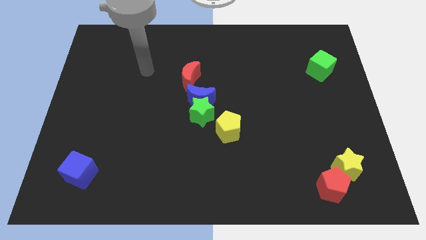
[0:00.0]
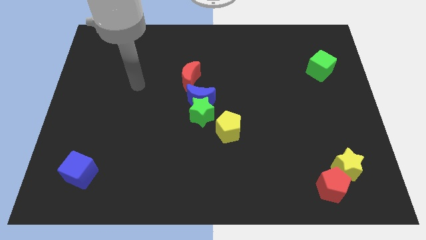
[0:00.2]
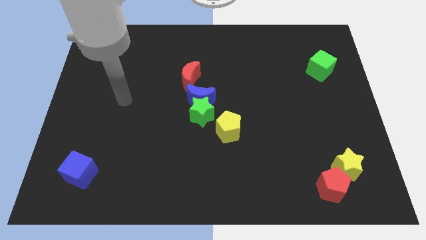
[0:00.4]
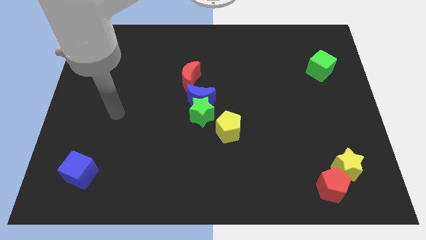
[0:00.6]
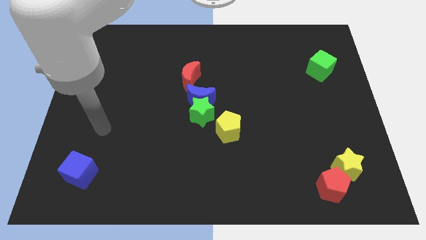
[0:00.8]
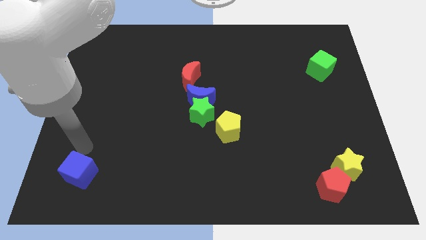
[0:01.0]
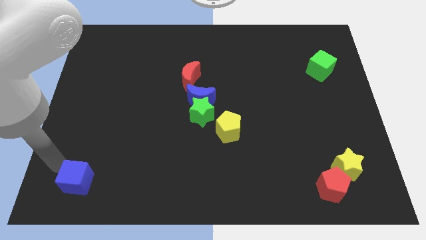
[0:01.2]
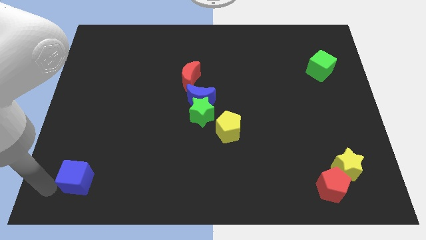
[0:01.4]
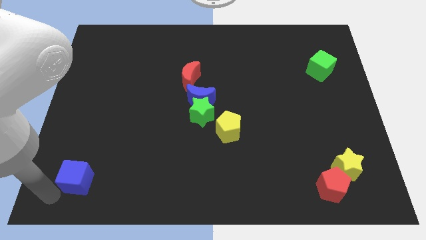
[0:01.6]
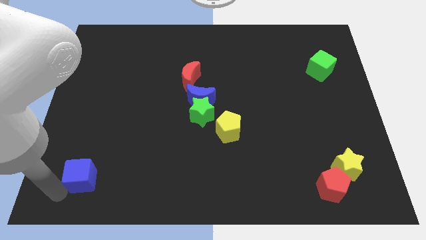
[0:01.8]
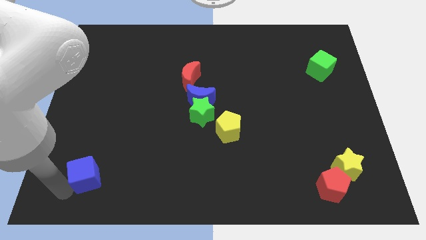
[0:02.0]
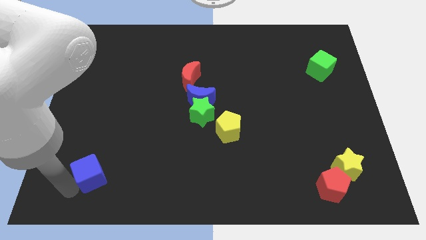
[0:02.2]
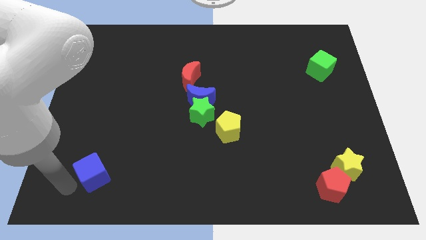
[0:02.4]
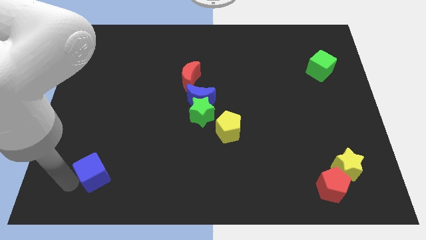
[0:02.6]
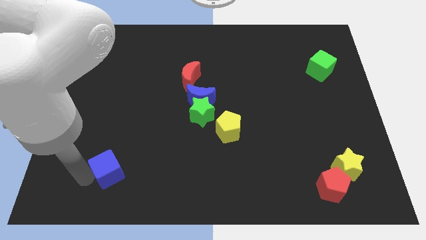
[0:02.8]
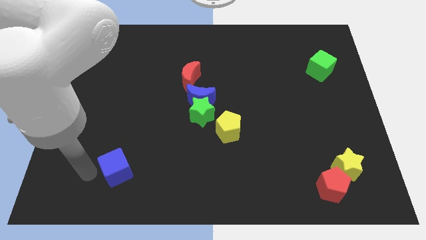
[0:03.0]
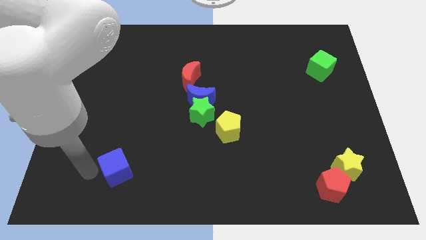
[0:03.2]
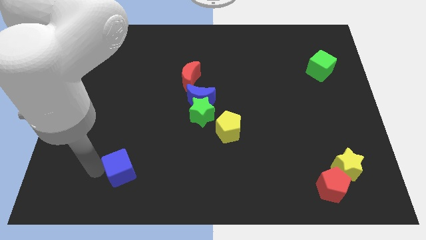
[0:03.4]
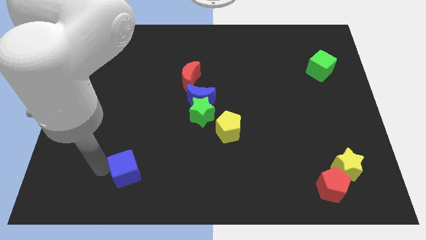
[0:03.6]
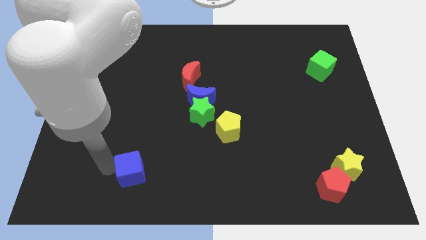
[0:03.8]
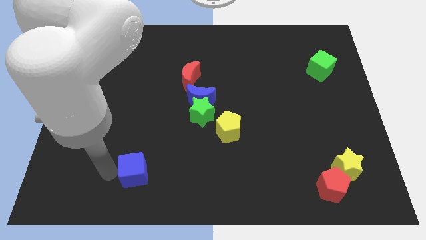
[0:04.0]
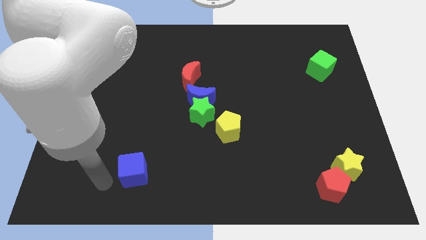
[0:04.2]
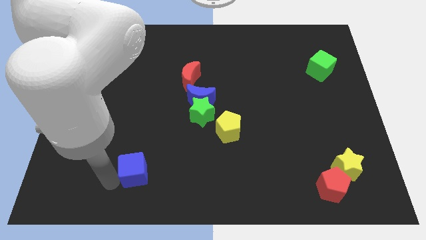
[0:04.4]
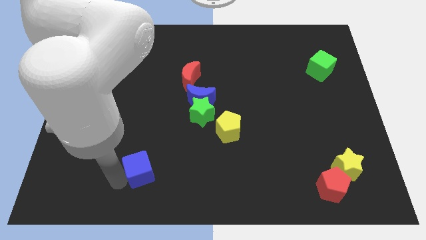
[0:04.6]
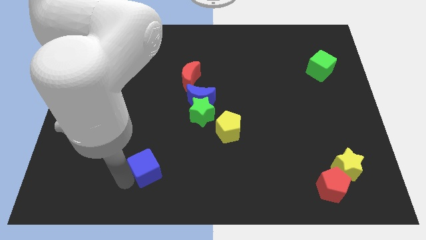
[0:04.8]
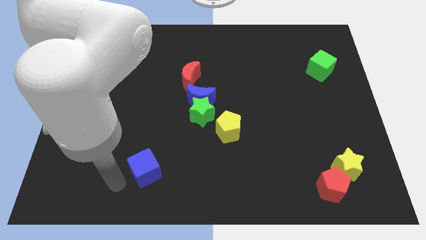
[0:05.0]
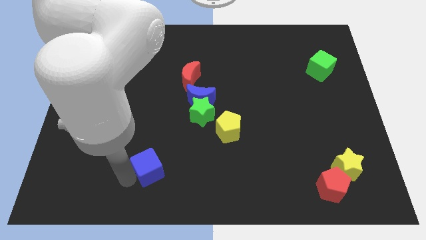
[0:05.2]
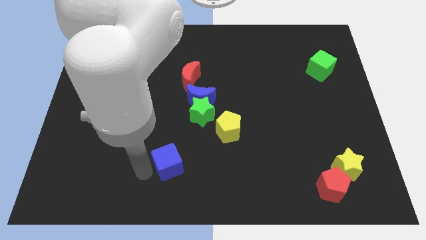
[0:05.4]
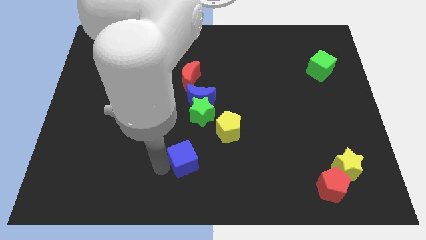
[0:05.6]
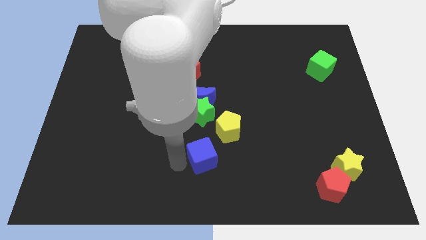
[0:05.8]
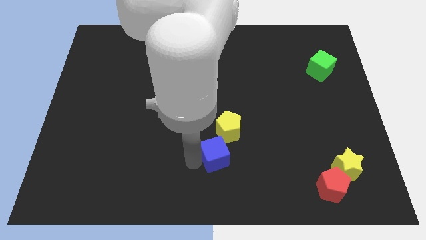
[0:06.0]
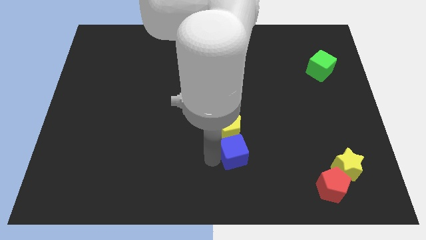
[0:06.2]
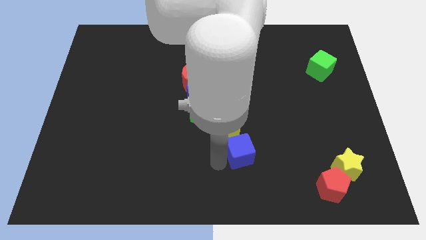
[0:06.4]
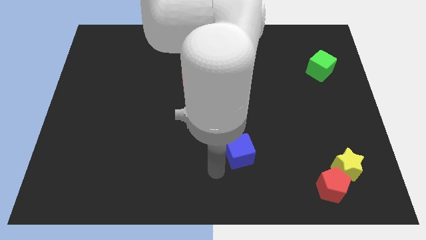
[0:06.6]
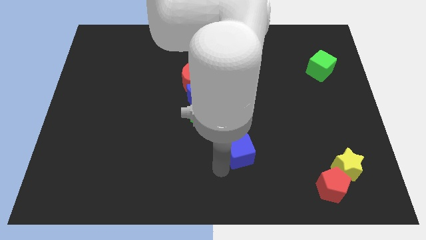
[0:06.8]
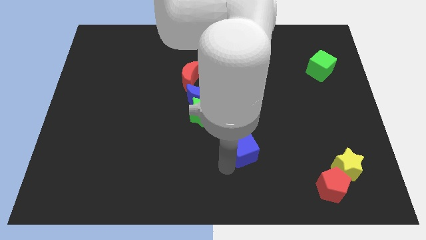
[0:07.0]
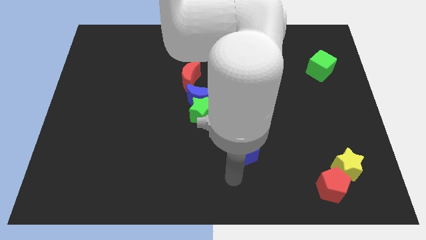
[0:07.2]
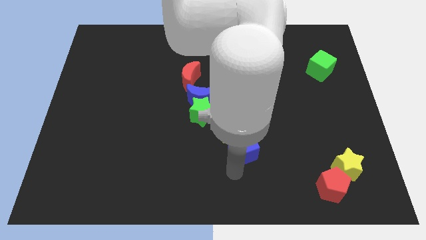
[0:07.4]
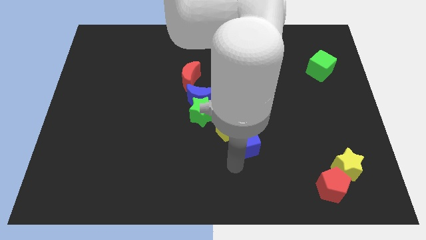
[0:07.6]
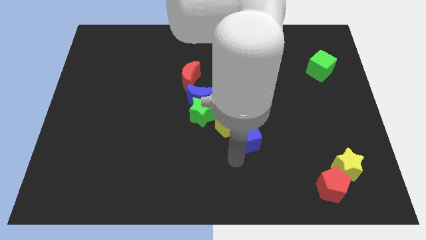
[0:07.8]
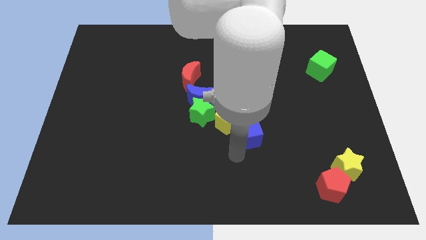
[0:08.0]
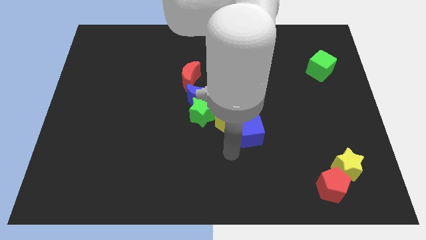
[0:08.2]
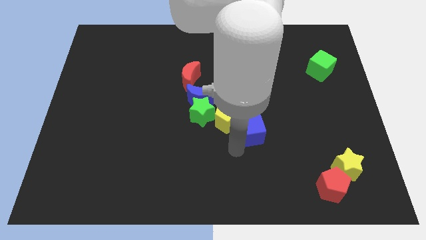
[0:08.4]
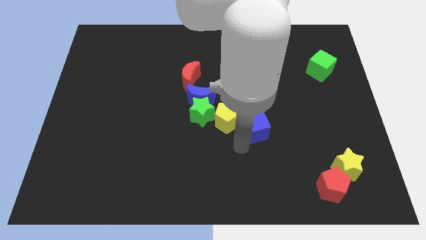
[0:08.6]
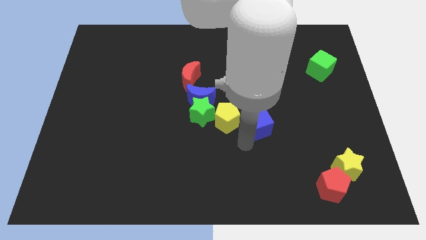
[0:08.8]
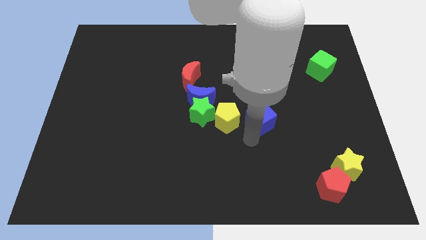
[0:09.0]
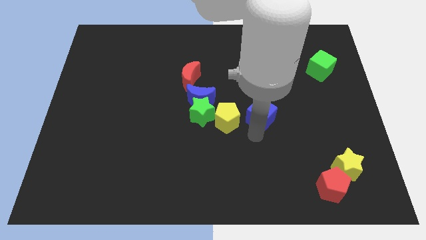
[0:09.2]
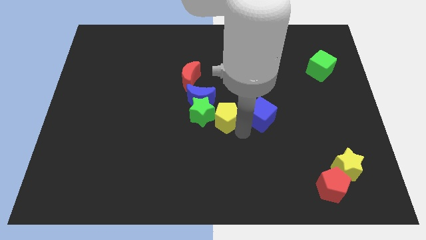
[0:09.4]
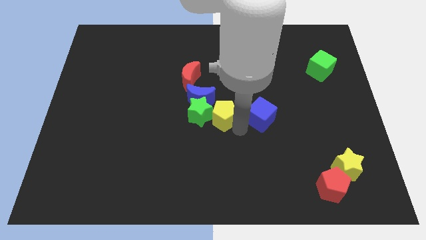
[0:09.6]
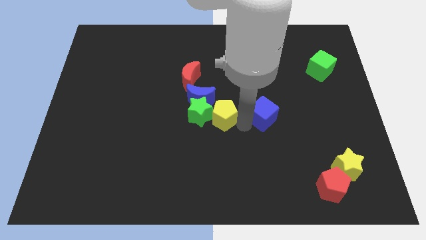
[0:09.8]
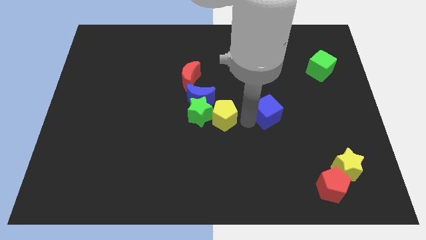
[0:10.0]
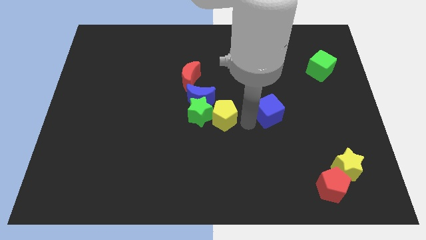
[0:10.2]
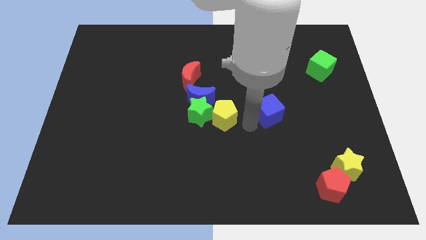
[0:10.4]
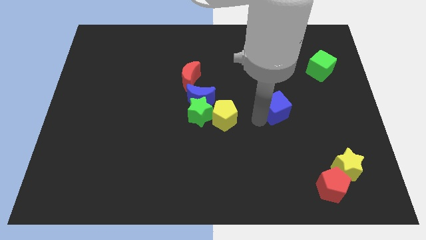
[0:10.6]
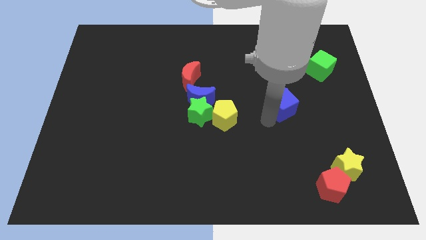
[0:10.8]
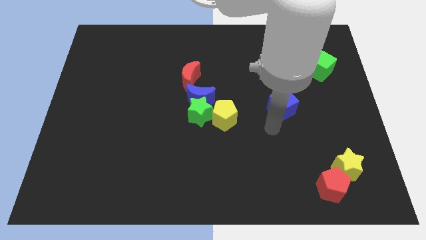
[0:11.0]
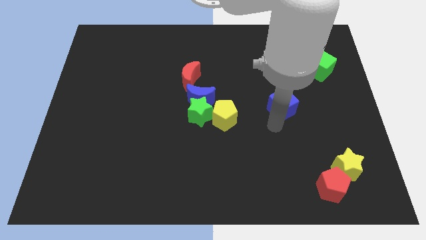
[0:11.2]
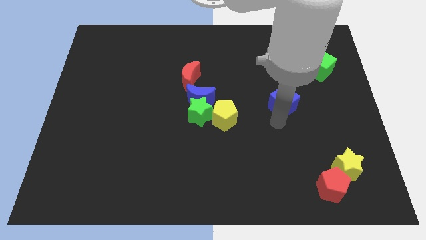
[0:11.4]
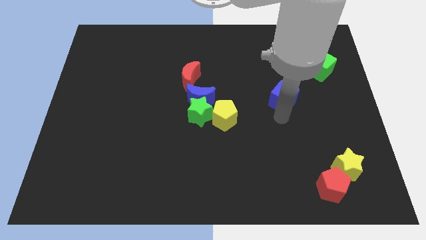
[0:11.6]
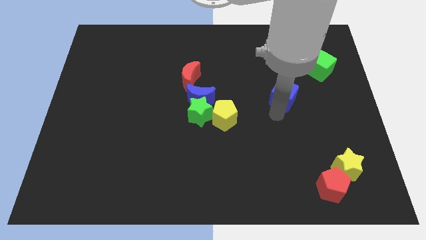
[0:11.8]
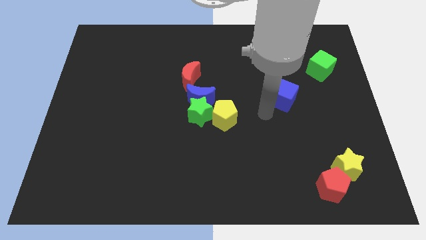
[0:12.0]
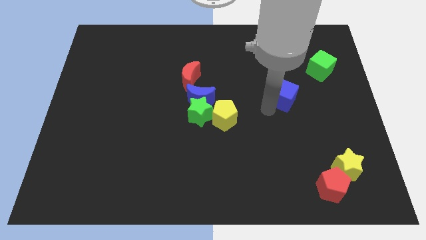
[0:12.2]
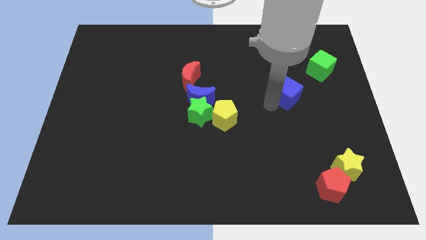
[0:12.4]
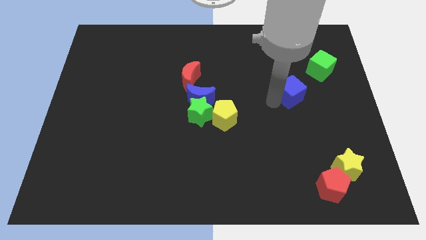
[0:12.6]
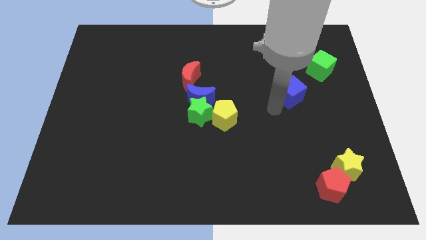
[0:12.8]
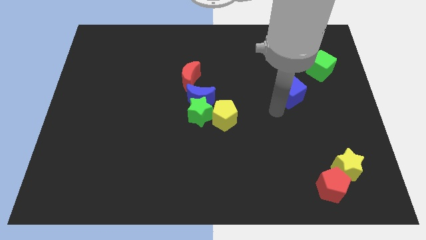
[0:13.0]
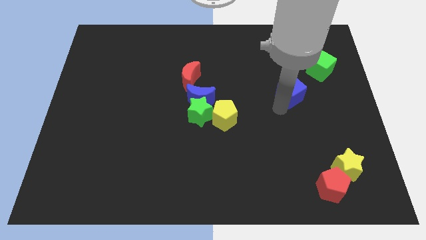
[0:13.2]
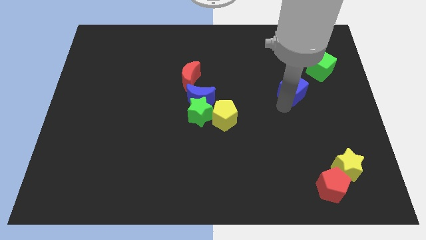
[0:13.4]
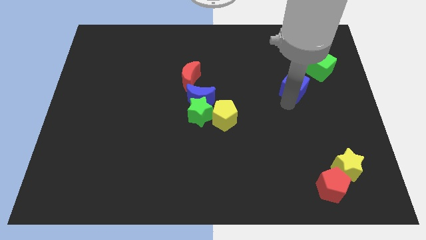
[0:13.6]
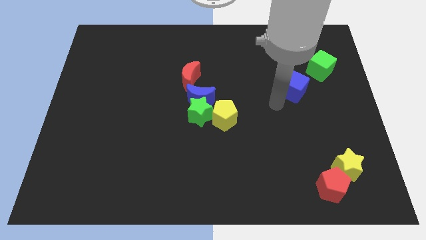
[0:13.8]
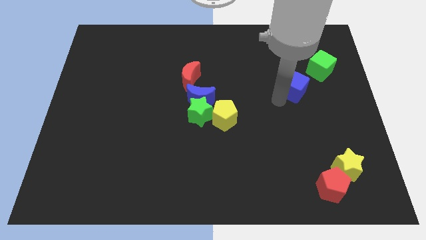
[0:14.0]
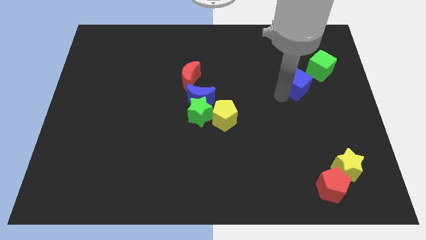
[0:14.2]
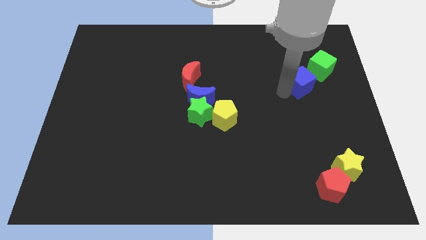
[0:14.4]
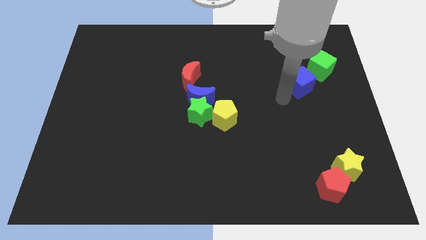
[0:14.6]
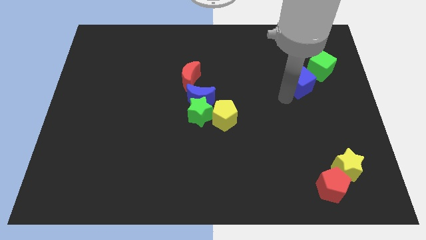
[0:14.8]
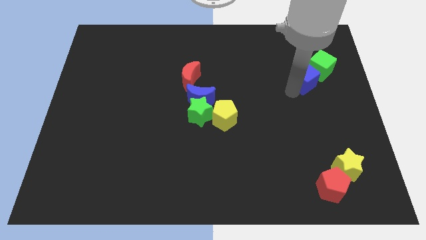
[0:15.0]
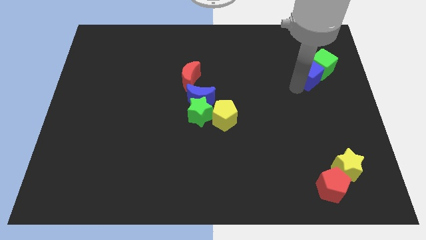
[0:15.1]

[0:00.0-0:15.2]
put the blue cube towards the green cube
